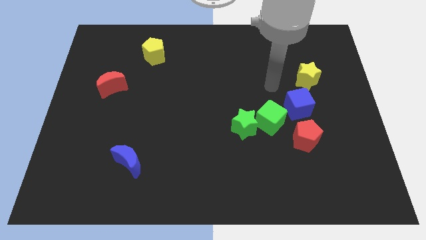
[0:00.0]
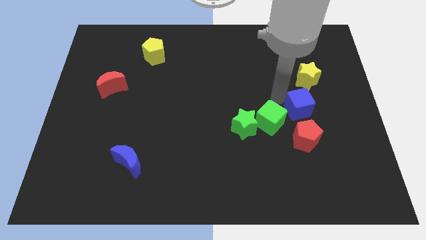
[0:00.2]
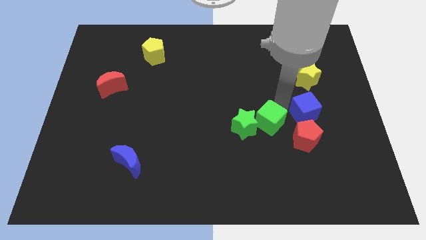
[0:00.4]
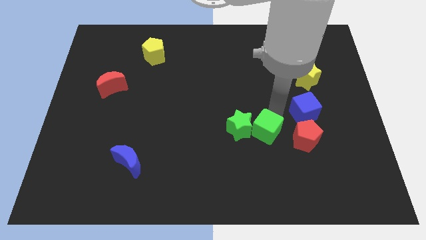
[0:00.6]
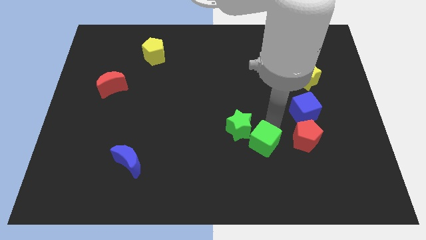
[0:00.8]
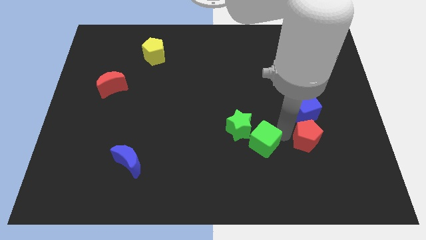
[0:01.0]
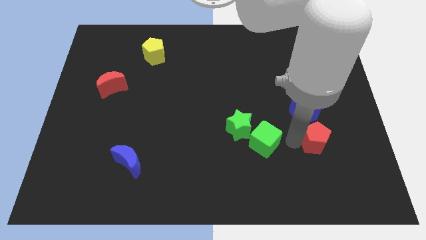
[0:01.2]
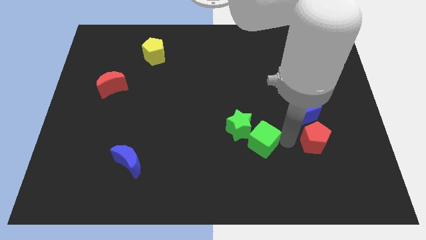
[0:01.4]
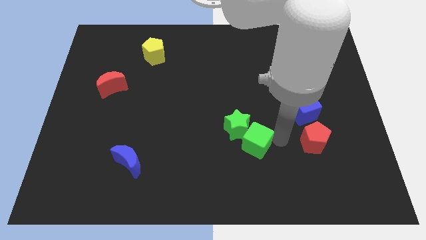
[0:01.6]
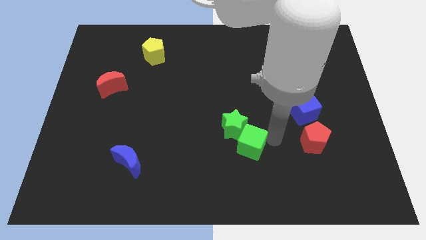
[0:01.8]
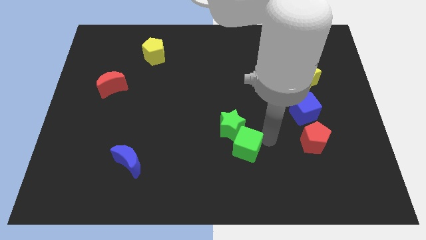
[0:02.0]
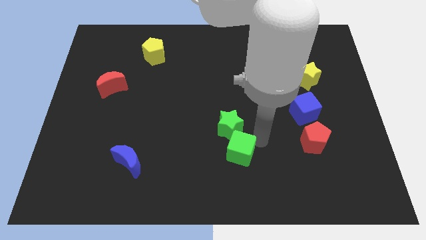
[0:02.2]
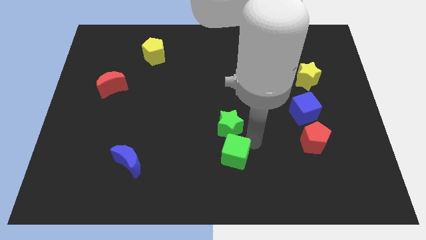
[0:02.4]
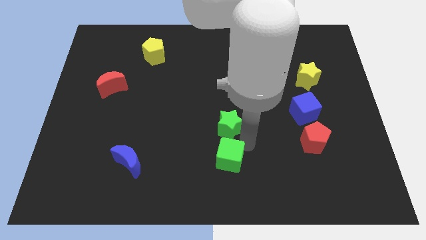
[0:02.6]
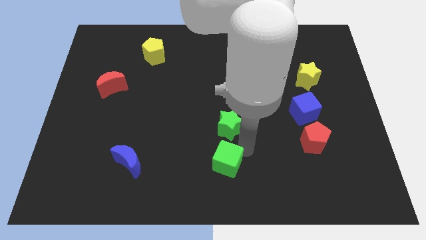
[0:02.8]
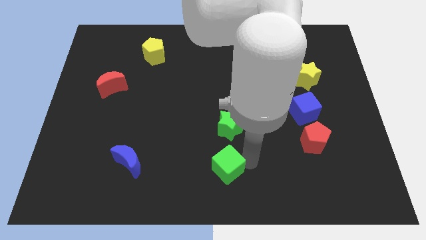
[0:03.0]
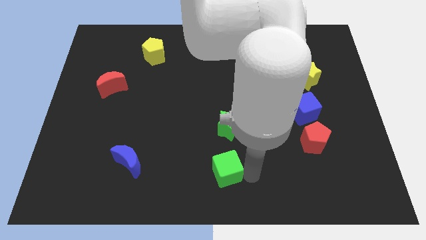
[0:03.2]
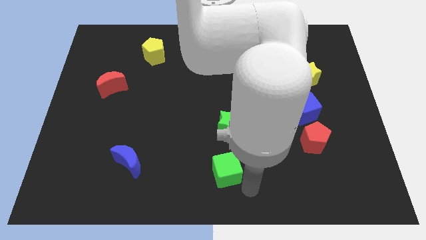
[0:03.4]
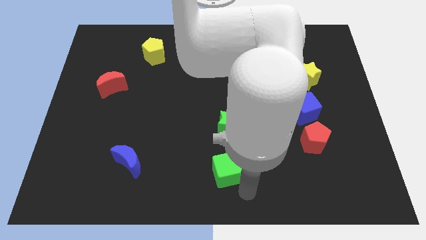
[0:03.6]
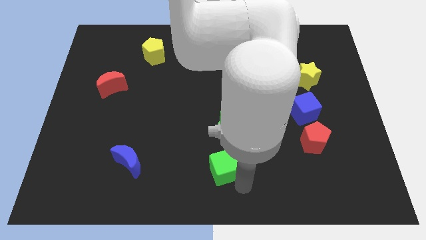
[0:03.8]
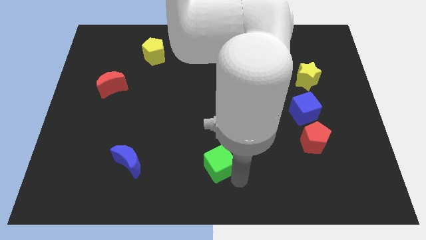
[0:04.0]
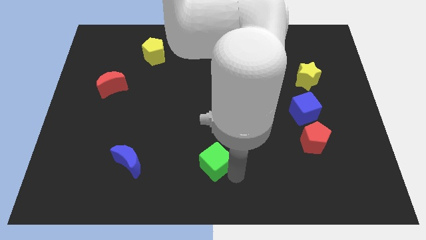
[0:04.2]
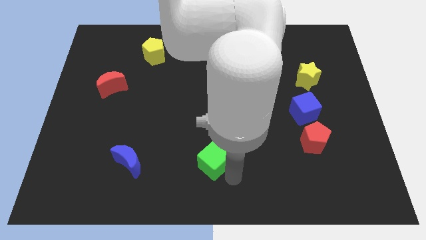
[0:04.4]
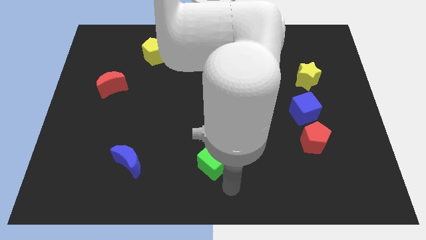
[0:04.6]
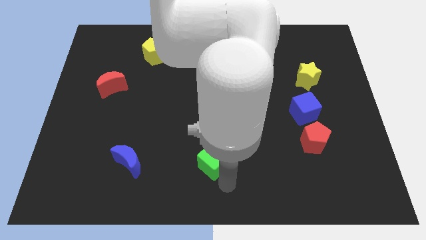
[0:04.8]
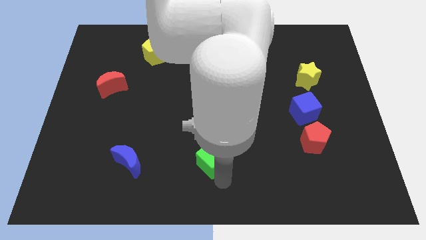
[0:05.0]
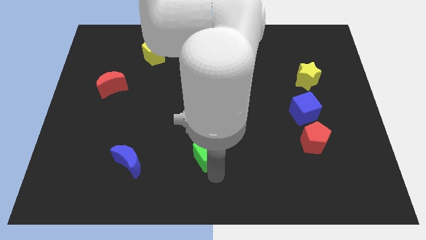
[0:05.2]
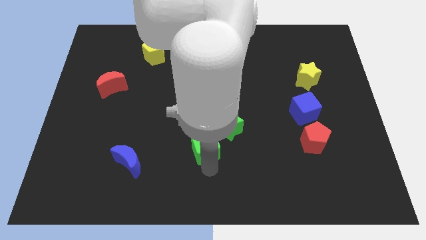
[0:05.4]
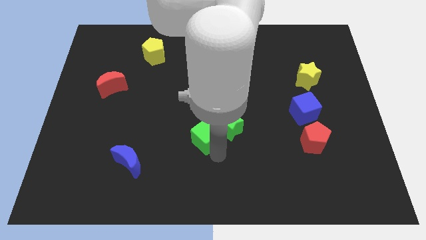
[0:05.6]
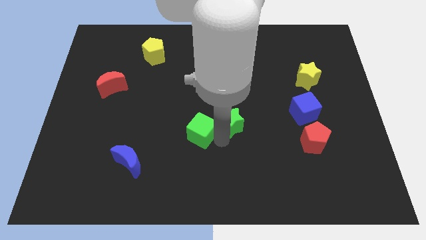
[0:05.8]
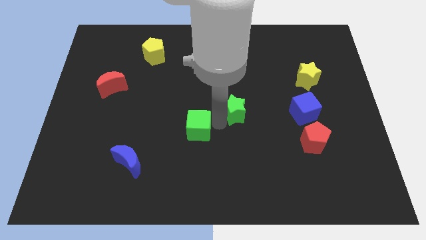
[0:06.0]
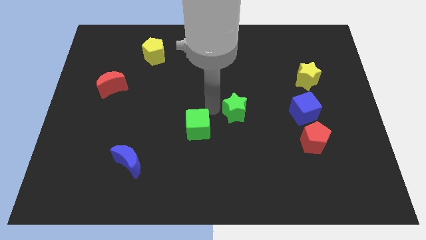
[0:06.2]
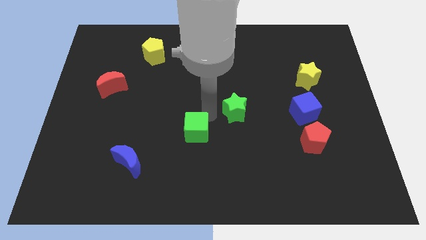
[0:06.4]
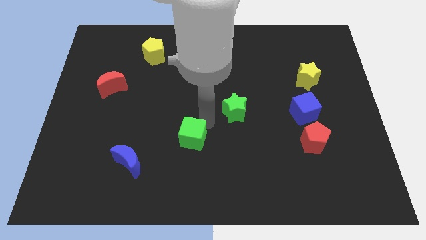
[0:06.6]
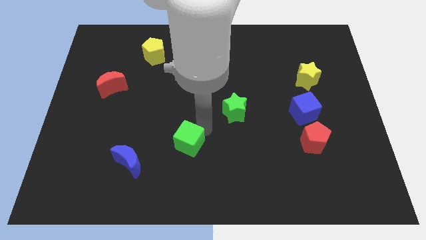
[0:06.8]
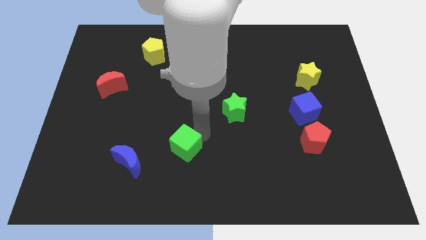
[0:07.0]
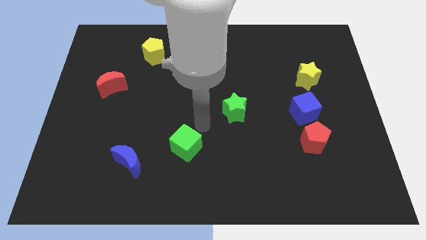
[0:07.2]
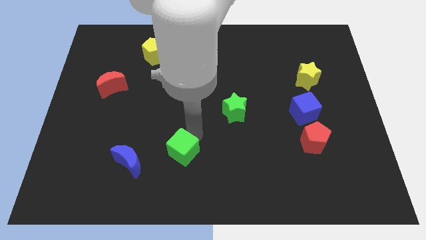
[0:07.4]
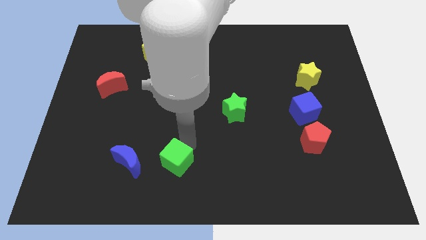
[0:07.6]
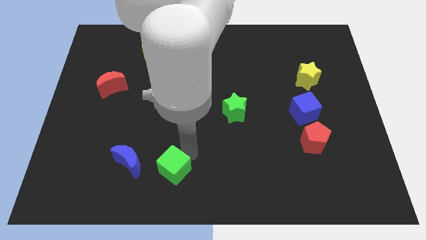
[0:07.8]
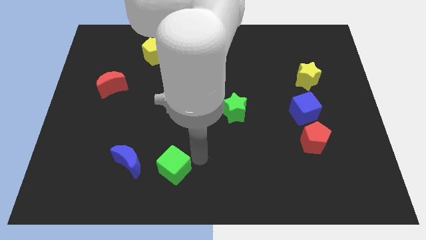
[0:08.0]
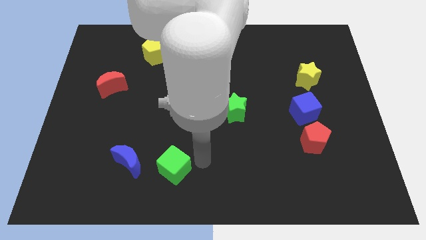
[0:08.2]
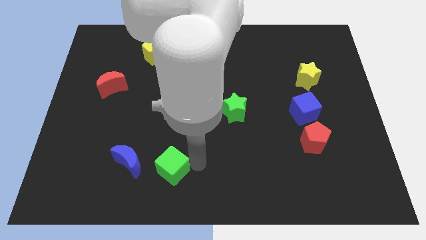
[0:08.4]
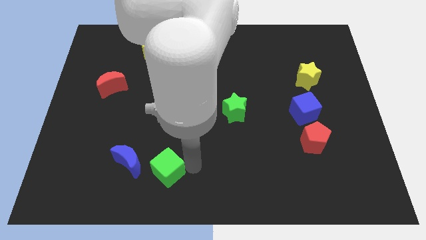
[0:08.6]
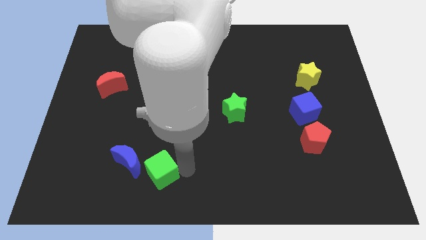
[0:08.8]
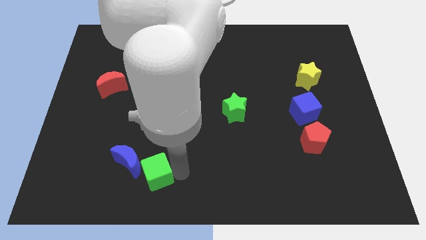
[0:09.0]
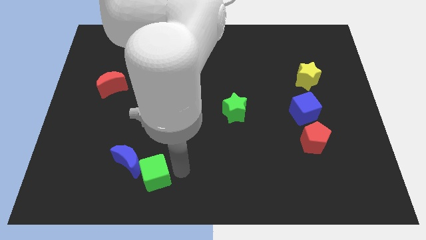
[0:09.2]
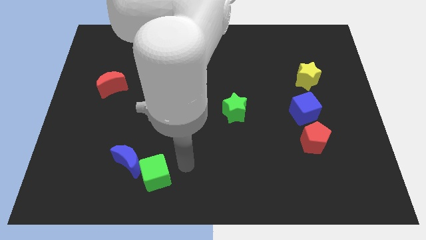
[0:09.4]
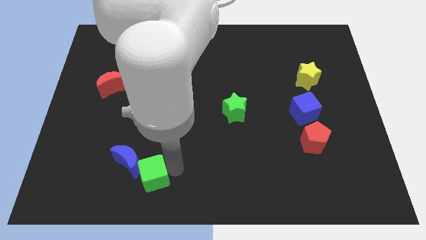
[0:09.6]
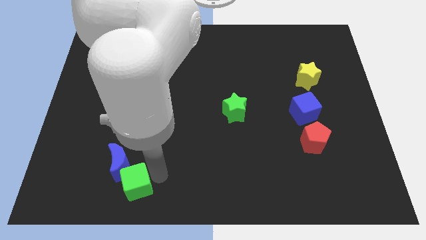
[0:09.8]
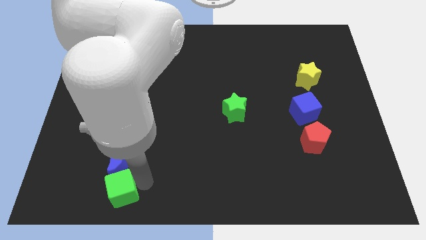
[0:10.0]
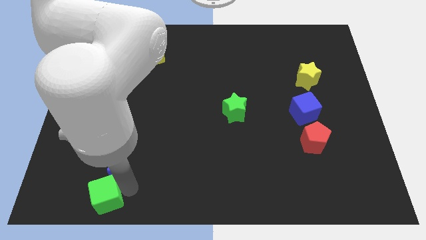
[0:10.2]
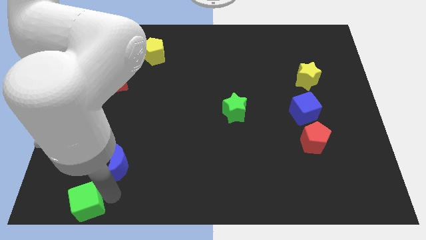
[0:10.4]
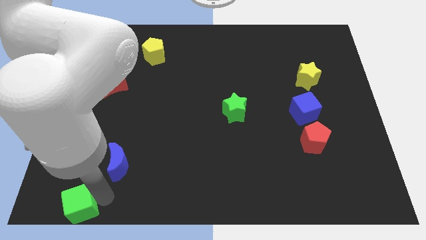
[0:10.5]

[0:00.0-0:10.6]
move the green cube to the bottom left corner

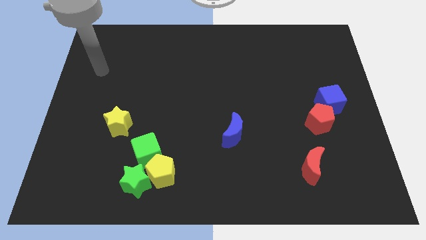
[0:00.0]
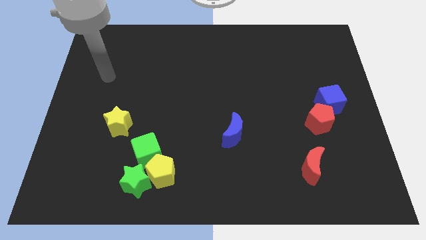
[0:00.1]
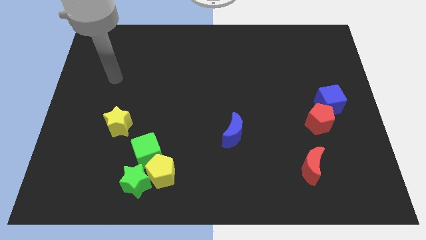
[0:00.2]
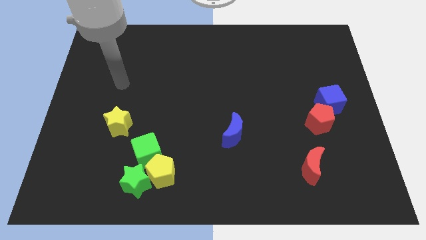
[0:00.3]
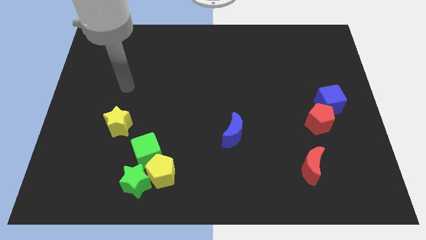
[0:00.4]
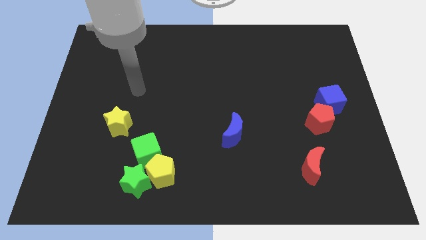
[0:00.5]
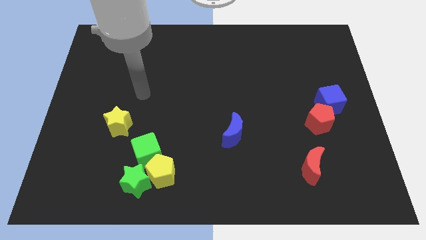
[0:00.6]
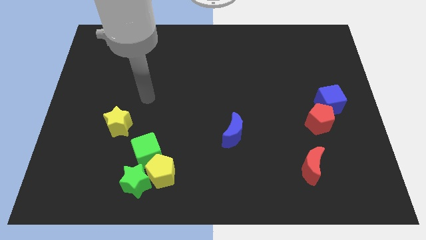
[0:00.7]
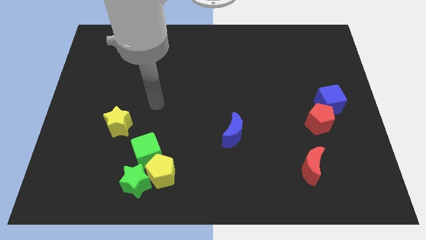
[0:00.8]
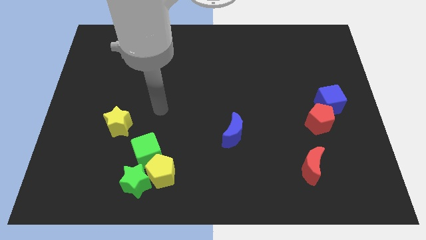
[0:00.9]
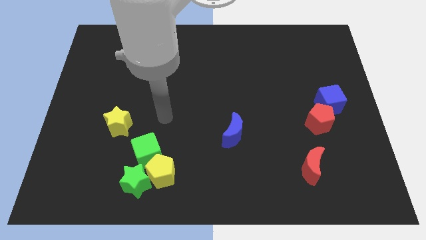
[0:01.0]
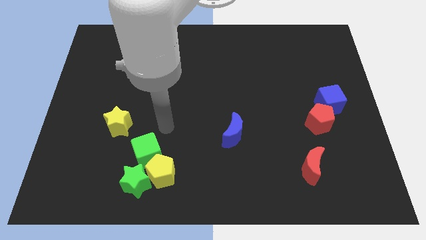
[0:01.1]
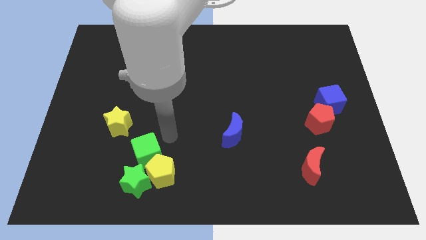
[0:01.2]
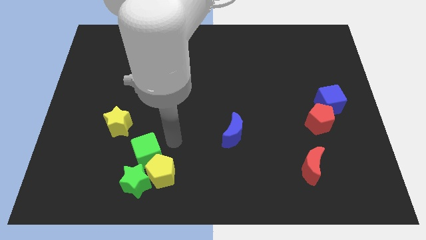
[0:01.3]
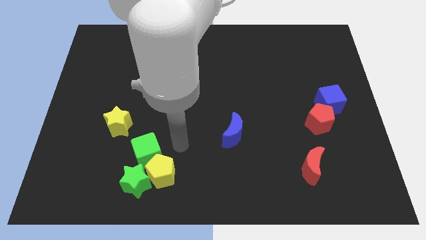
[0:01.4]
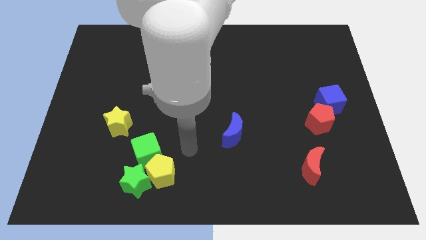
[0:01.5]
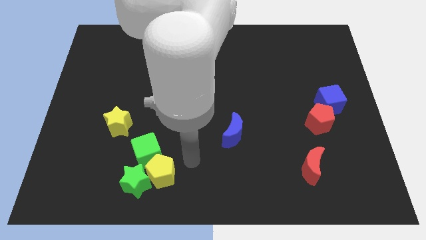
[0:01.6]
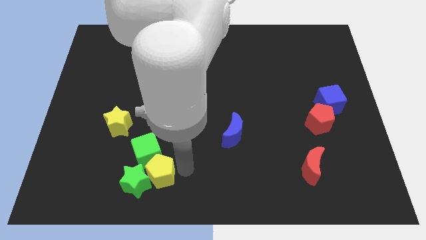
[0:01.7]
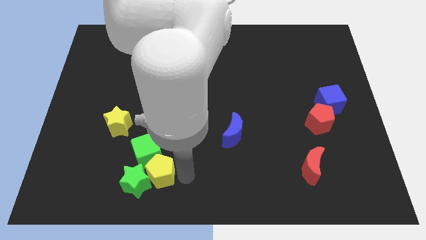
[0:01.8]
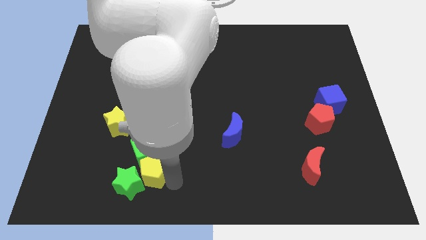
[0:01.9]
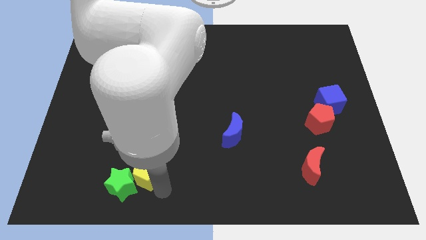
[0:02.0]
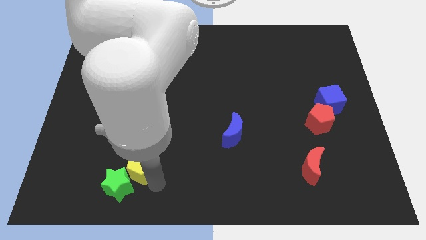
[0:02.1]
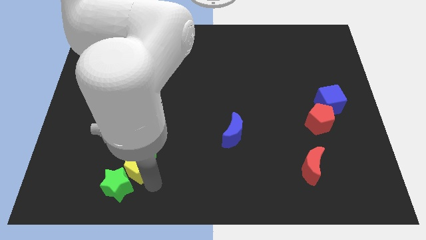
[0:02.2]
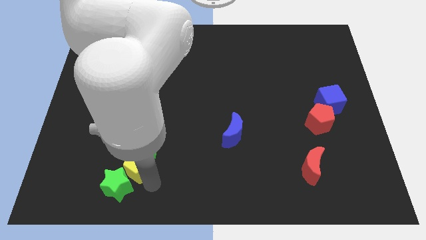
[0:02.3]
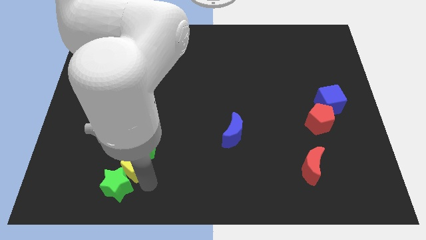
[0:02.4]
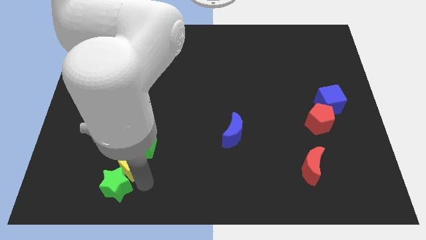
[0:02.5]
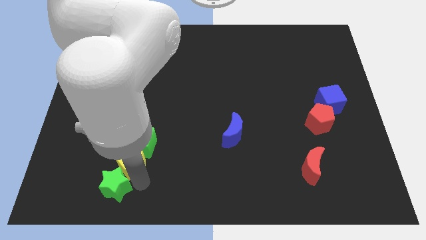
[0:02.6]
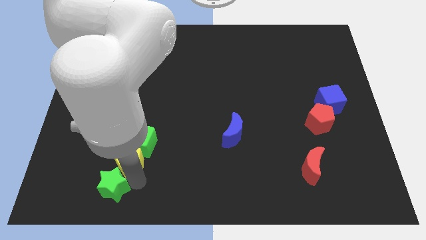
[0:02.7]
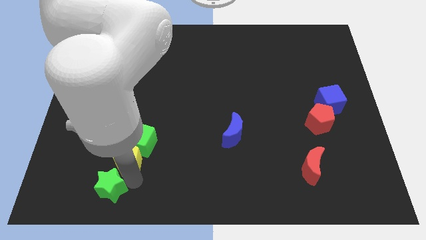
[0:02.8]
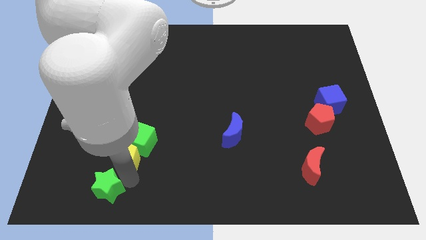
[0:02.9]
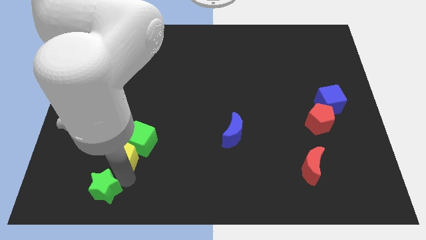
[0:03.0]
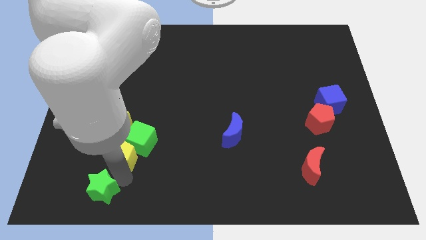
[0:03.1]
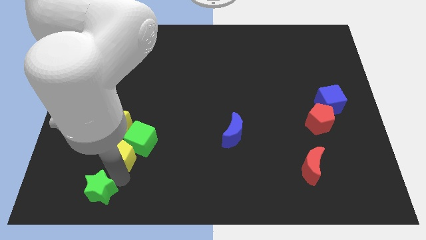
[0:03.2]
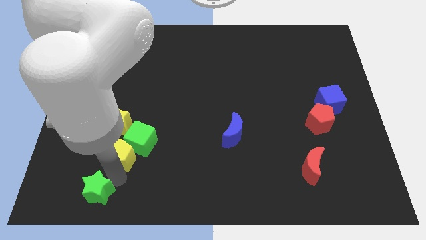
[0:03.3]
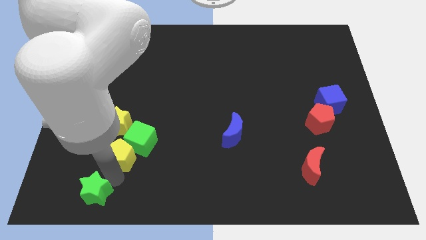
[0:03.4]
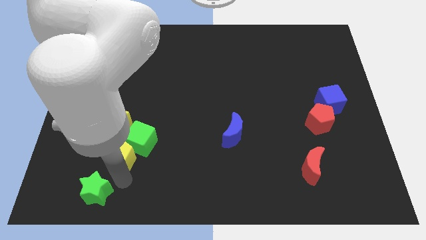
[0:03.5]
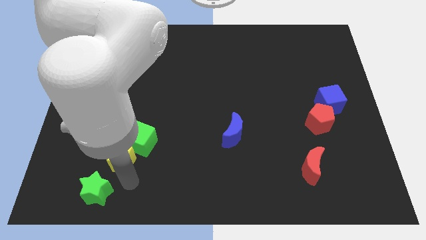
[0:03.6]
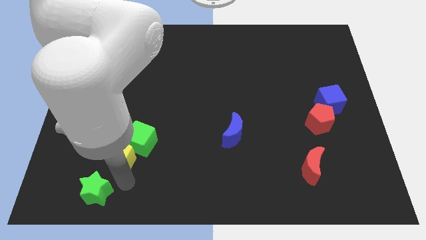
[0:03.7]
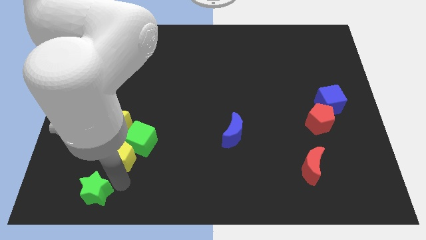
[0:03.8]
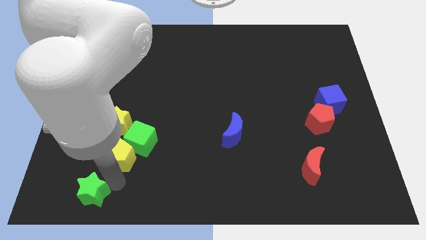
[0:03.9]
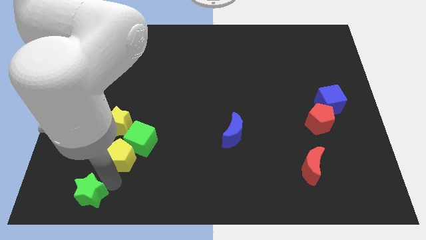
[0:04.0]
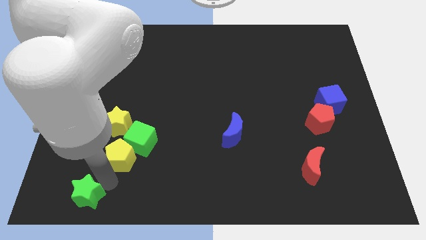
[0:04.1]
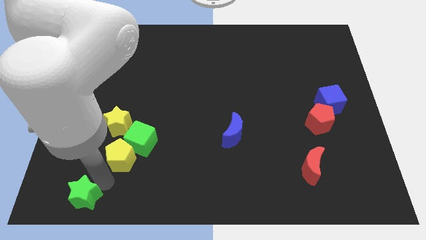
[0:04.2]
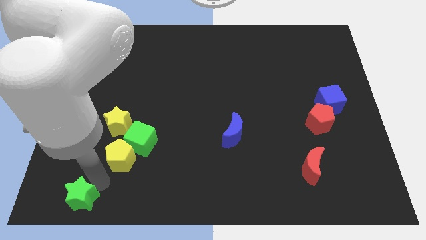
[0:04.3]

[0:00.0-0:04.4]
move the green star to the bottom left corner
